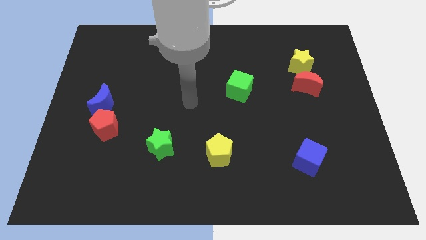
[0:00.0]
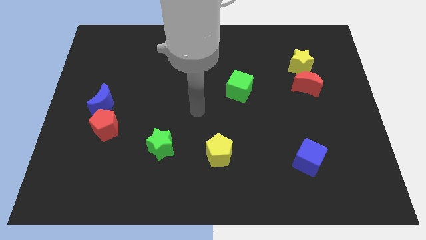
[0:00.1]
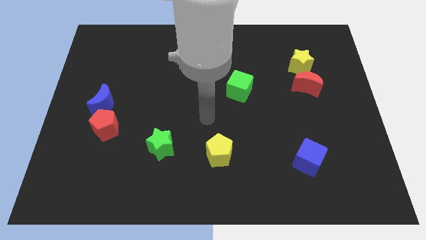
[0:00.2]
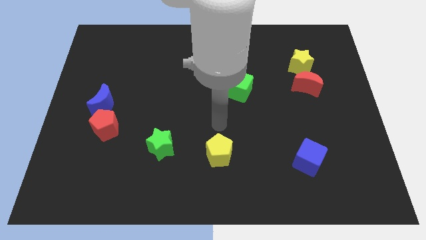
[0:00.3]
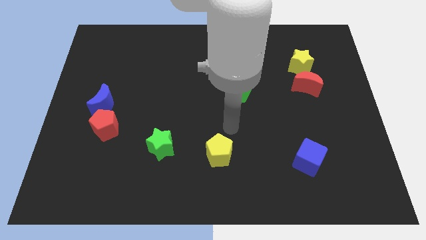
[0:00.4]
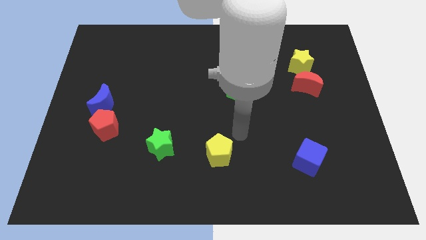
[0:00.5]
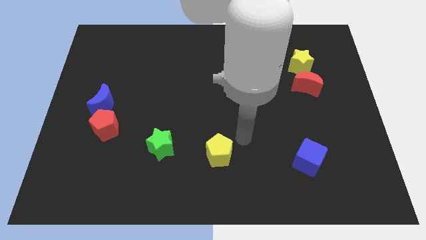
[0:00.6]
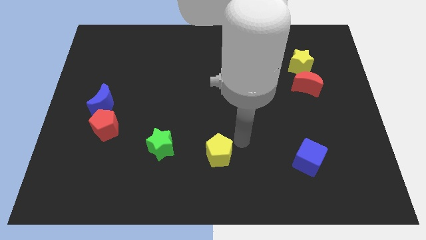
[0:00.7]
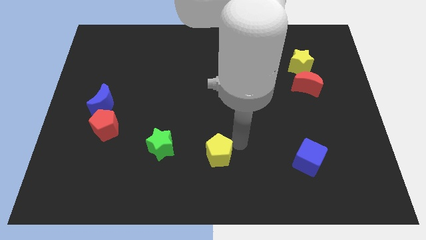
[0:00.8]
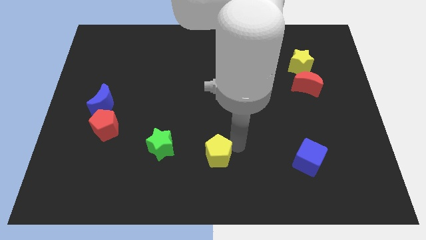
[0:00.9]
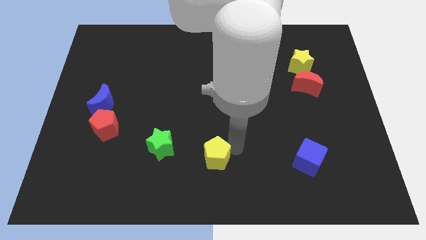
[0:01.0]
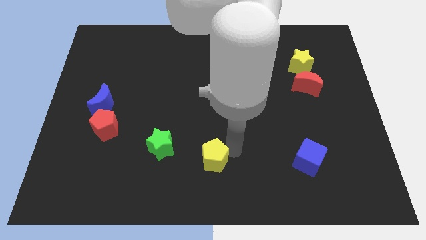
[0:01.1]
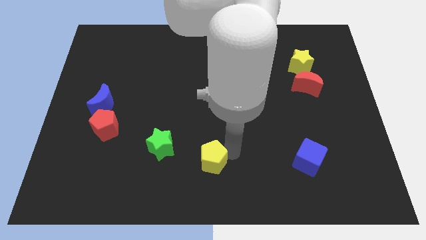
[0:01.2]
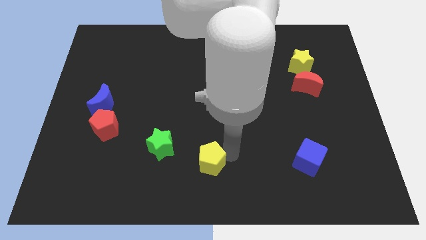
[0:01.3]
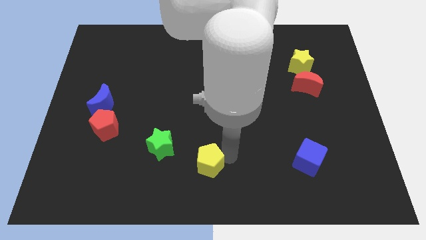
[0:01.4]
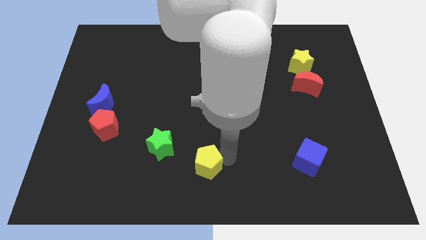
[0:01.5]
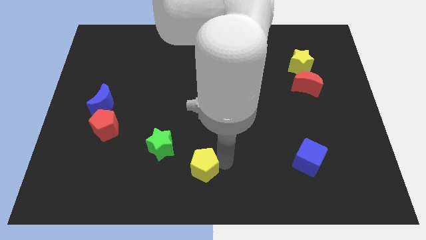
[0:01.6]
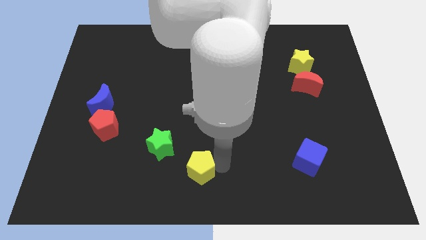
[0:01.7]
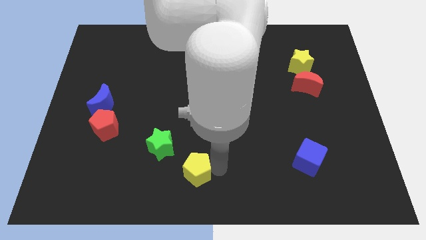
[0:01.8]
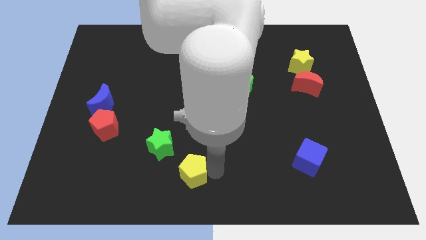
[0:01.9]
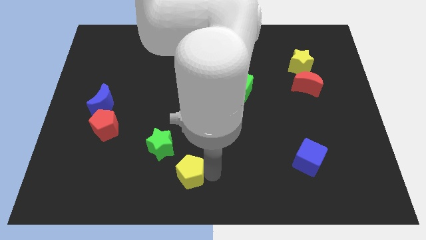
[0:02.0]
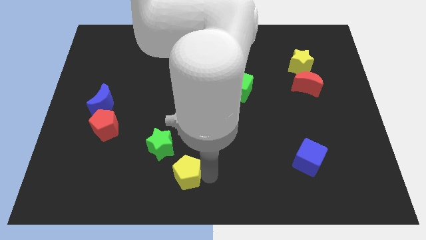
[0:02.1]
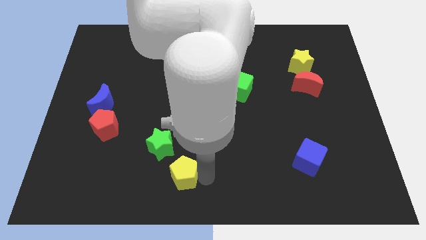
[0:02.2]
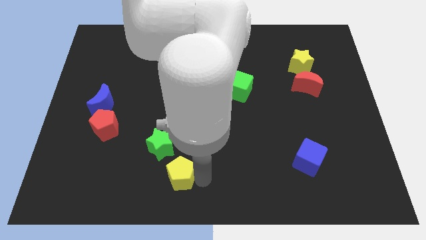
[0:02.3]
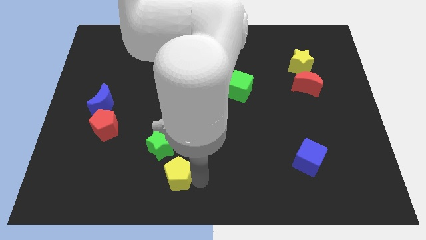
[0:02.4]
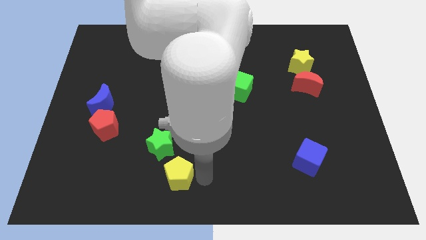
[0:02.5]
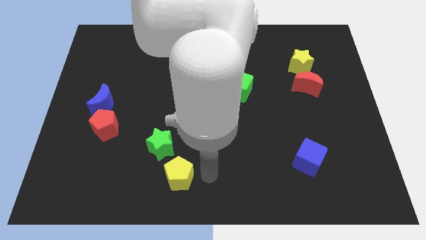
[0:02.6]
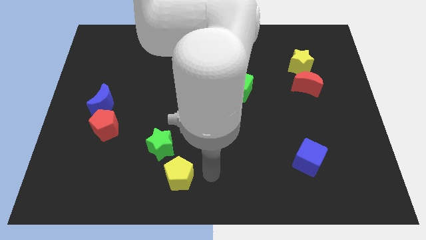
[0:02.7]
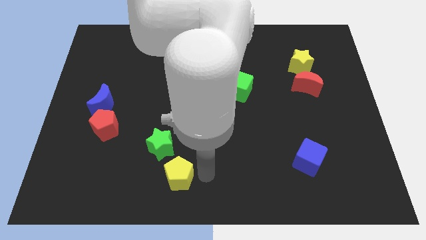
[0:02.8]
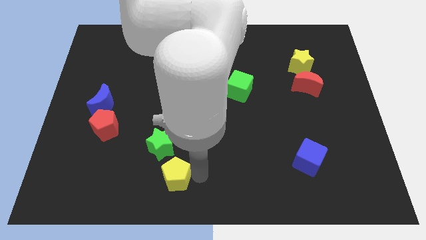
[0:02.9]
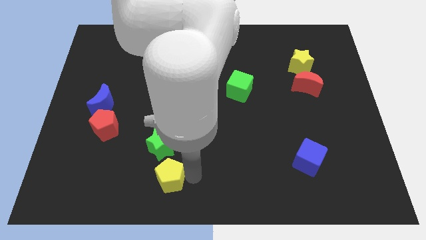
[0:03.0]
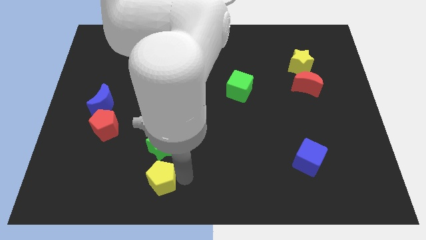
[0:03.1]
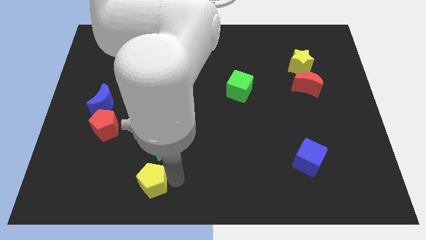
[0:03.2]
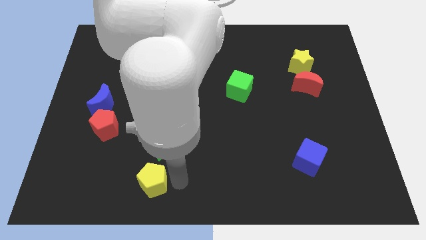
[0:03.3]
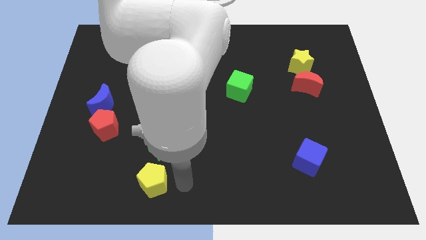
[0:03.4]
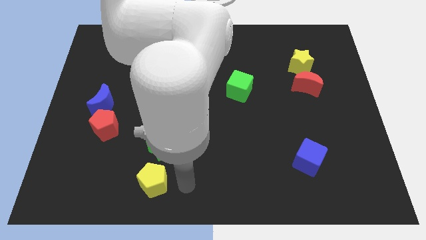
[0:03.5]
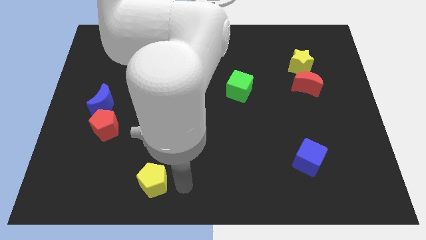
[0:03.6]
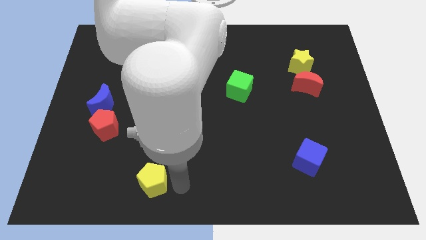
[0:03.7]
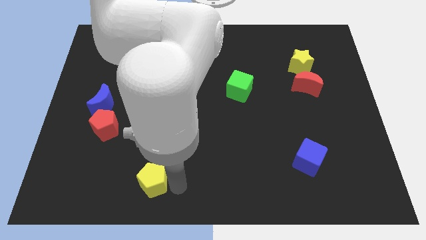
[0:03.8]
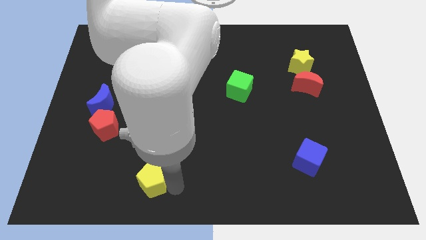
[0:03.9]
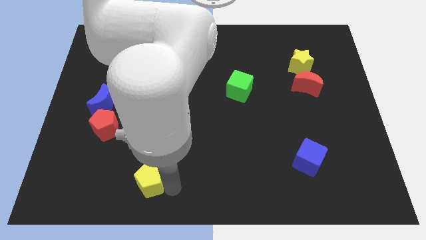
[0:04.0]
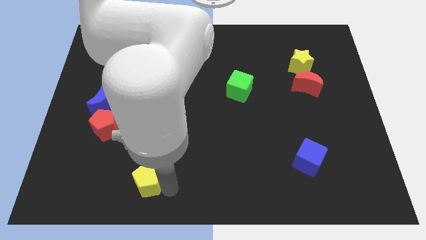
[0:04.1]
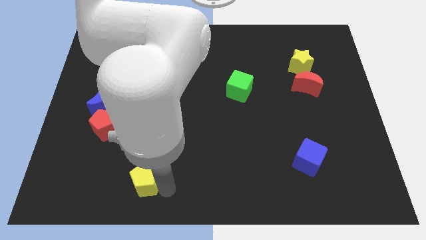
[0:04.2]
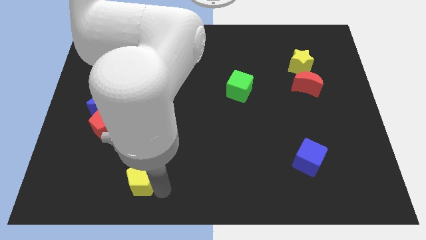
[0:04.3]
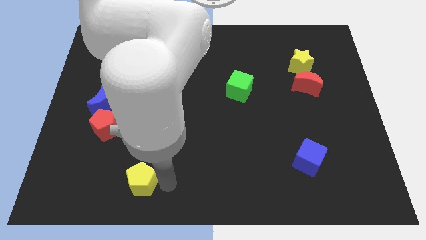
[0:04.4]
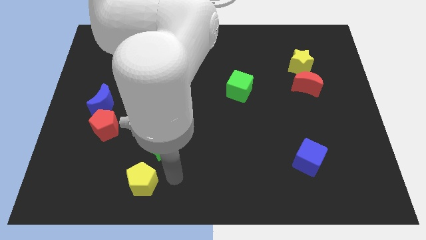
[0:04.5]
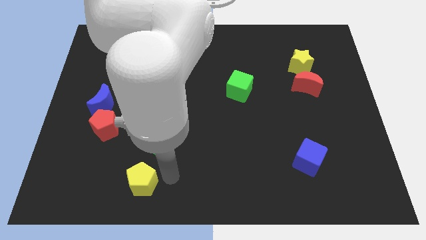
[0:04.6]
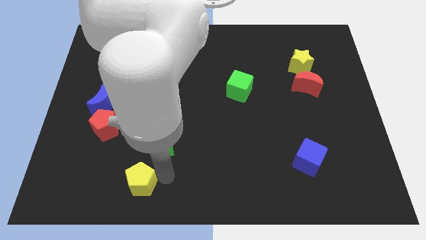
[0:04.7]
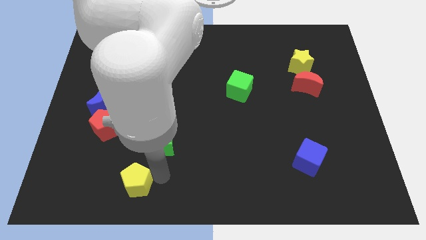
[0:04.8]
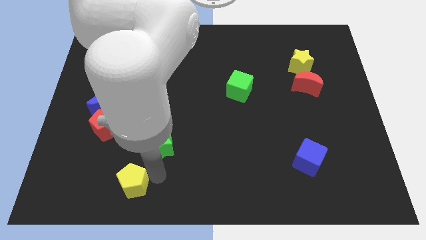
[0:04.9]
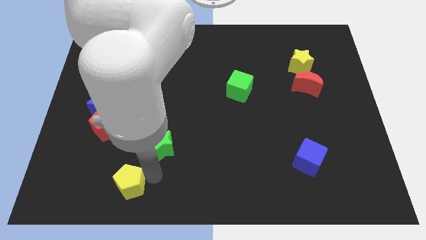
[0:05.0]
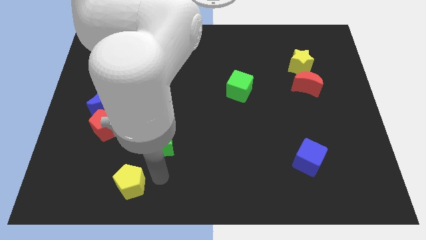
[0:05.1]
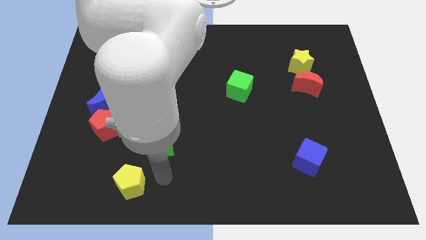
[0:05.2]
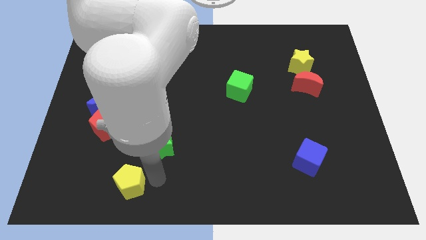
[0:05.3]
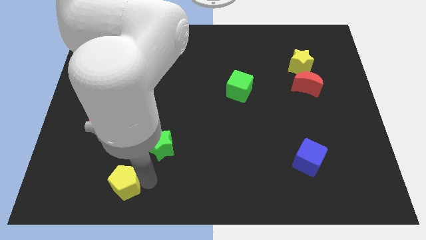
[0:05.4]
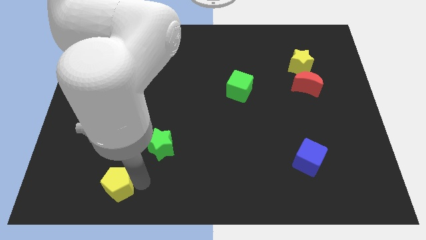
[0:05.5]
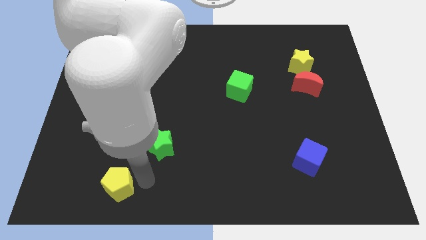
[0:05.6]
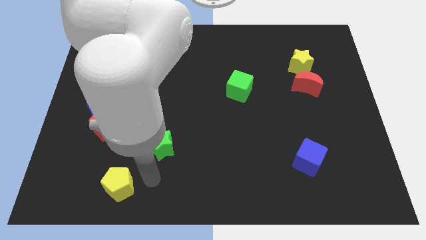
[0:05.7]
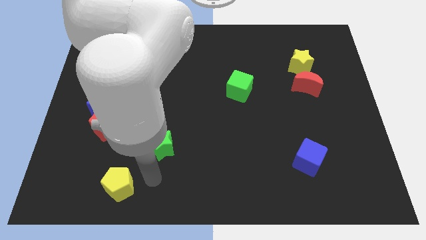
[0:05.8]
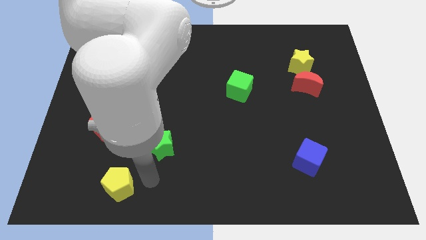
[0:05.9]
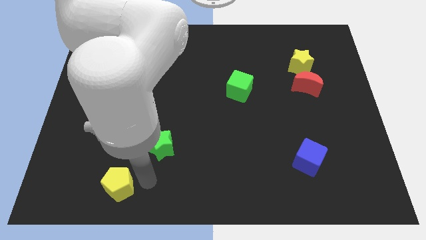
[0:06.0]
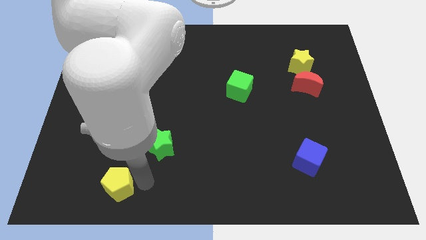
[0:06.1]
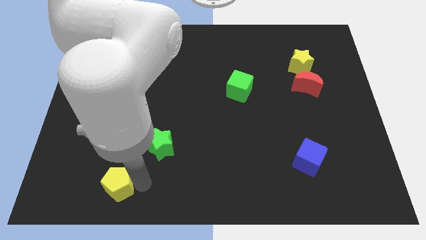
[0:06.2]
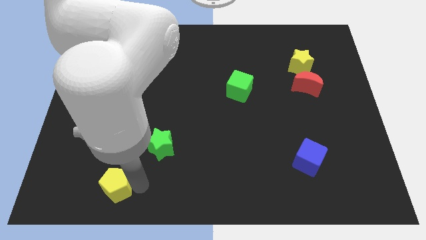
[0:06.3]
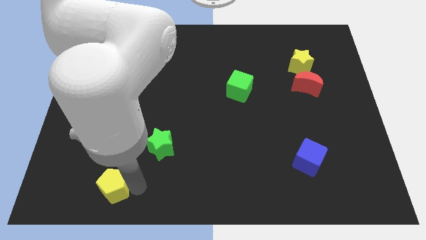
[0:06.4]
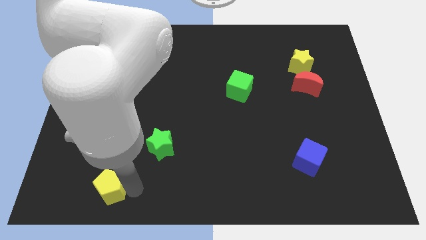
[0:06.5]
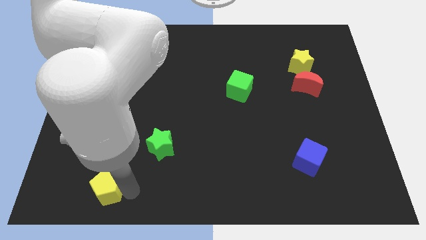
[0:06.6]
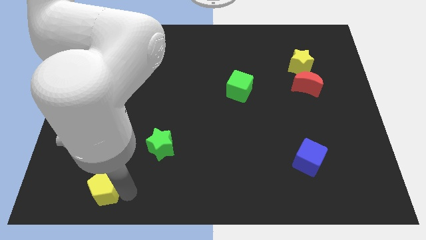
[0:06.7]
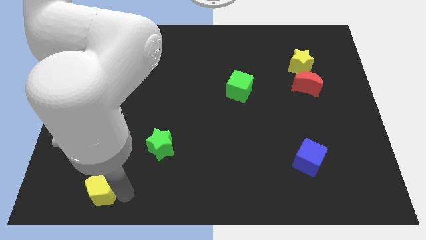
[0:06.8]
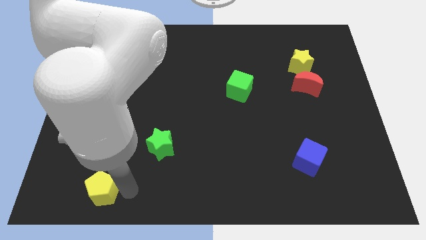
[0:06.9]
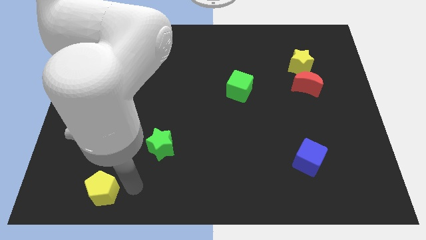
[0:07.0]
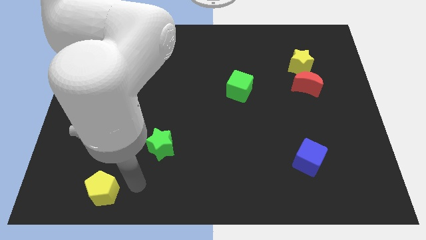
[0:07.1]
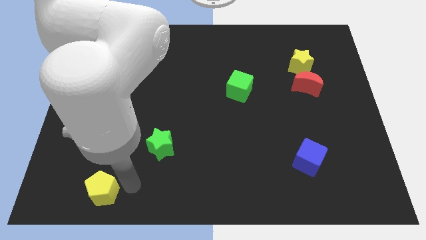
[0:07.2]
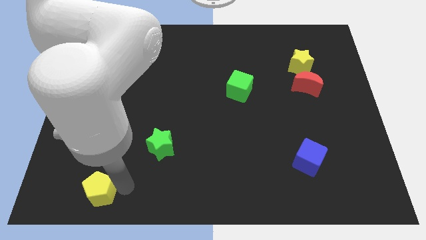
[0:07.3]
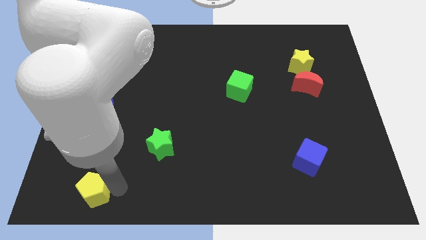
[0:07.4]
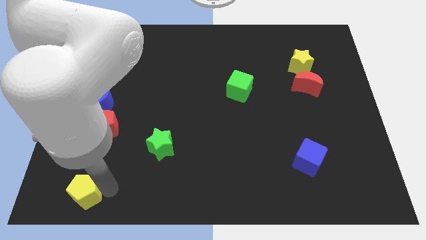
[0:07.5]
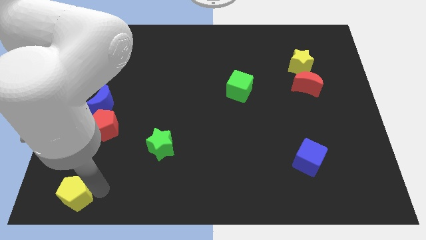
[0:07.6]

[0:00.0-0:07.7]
move the yellow pentagon to the bottom left of the board
